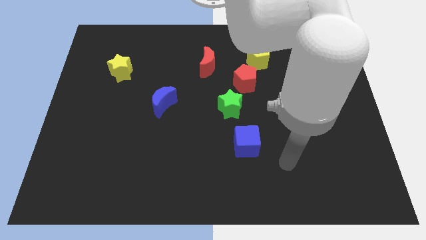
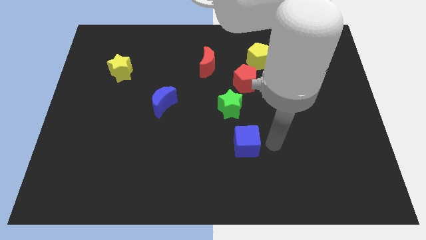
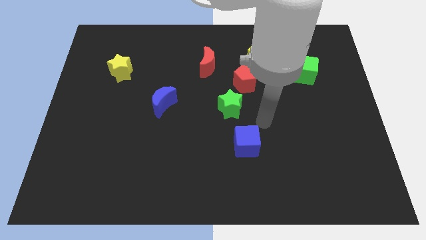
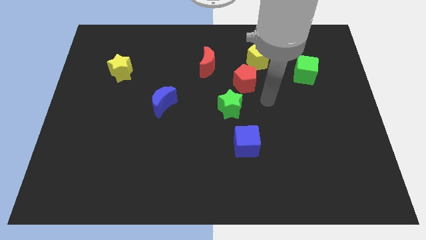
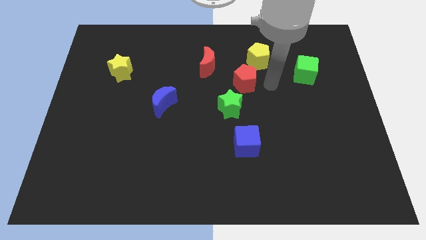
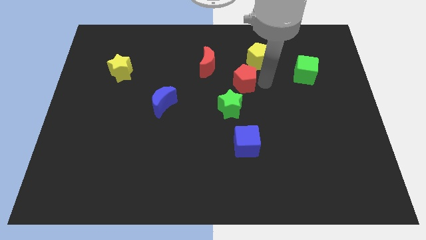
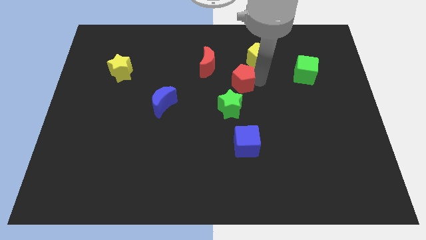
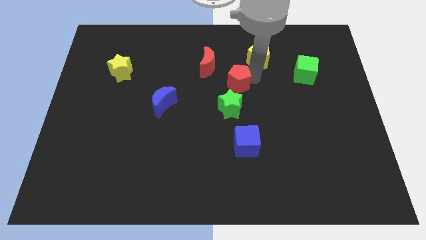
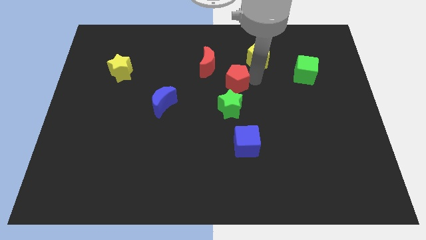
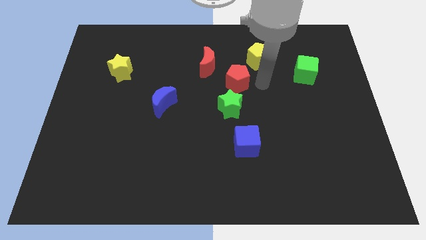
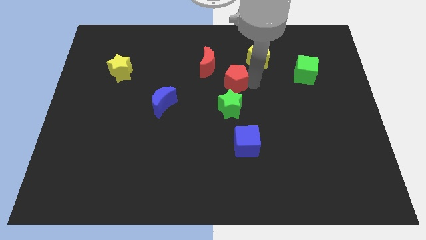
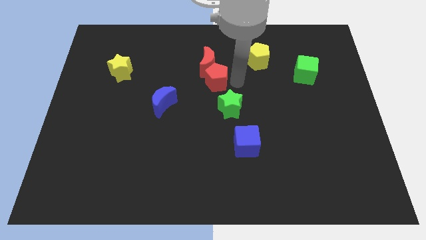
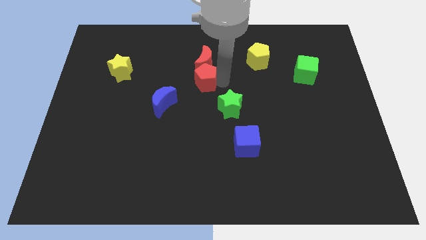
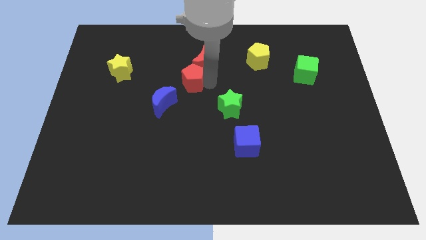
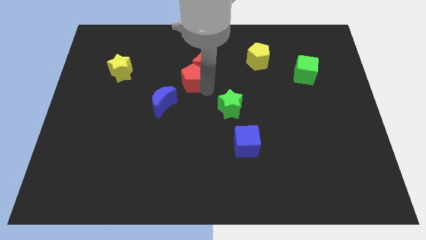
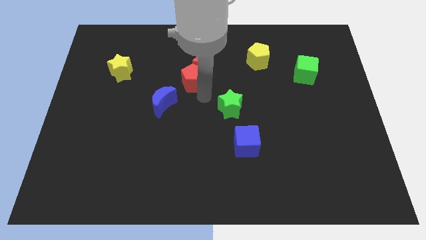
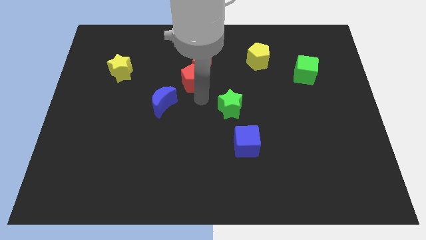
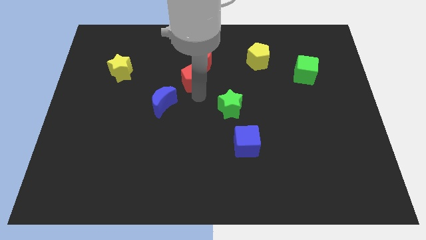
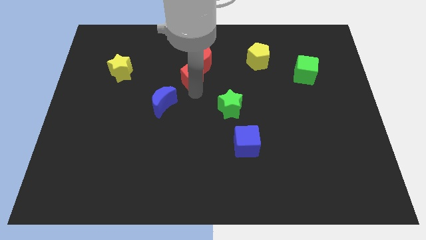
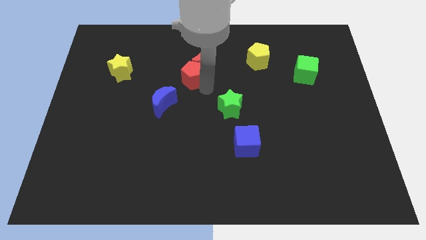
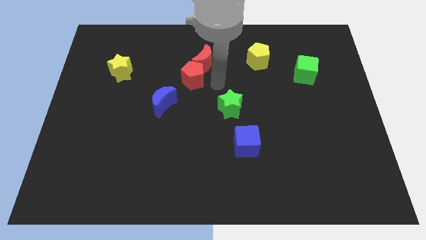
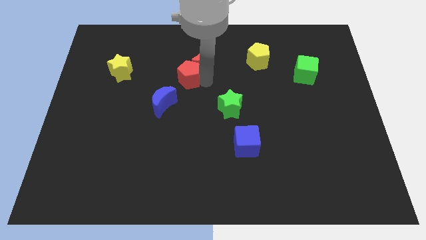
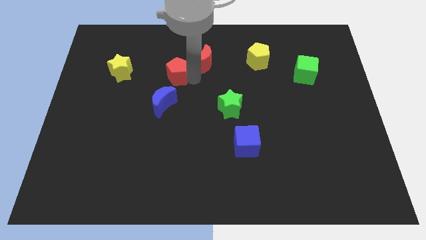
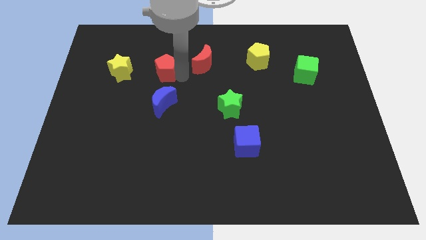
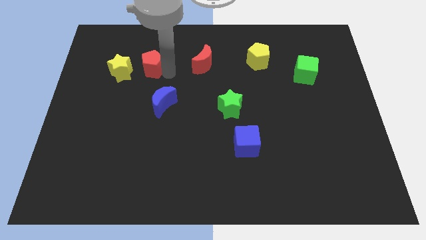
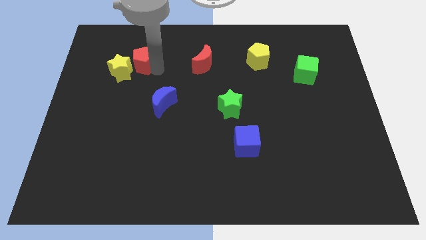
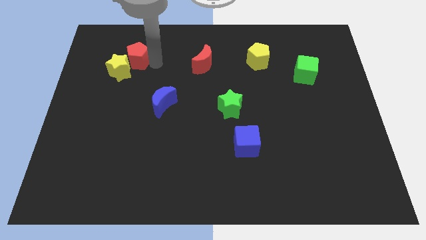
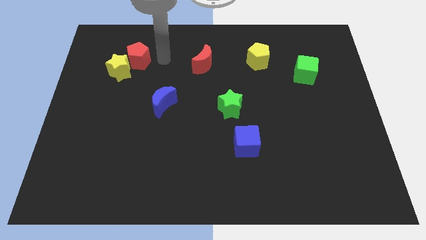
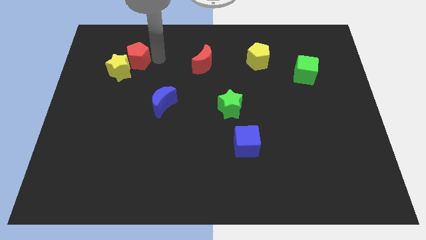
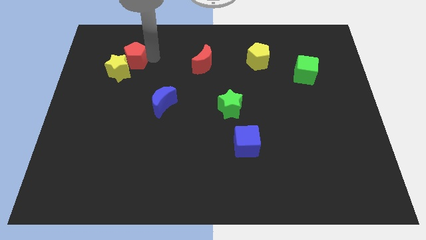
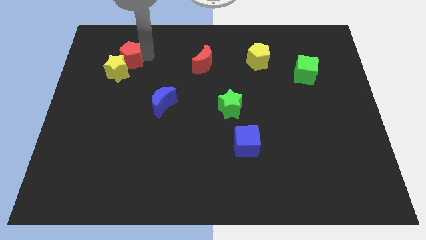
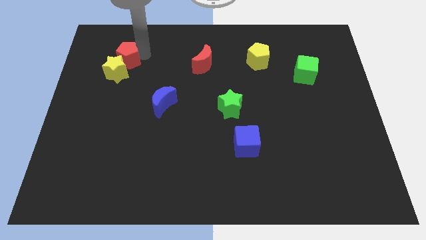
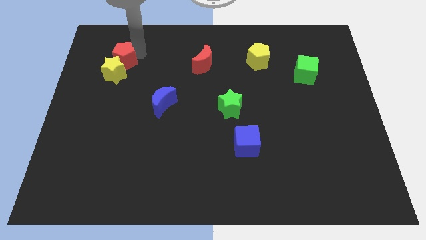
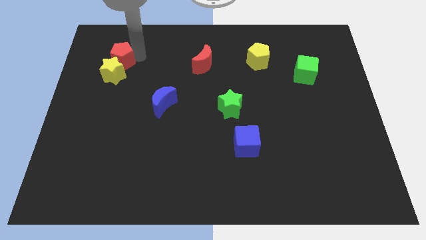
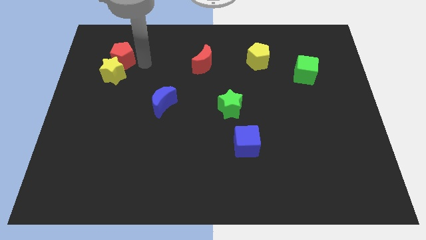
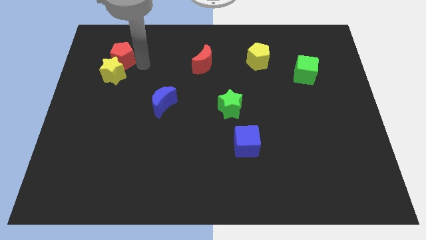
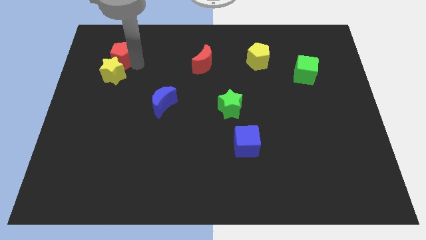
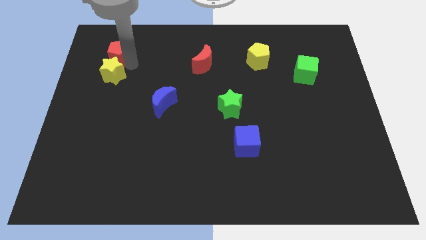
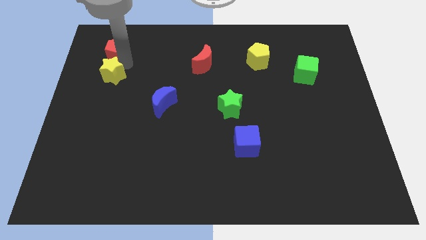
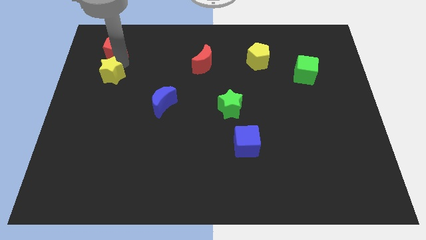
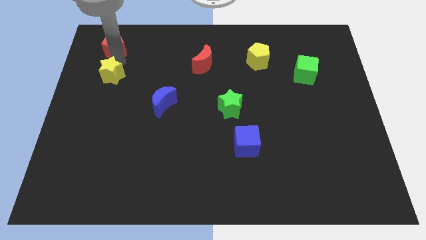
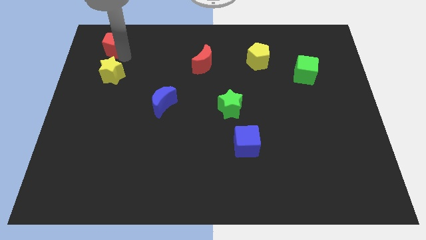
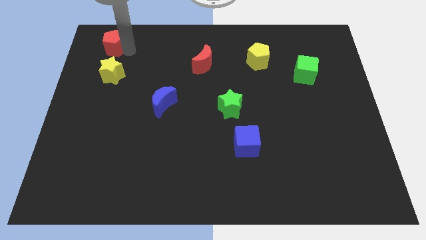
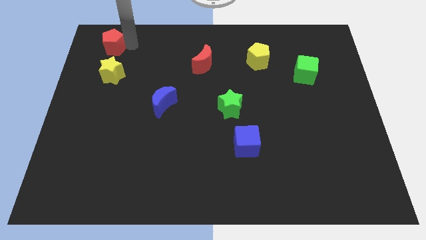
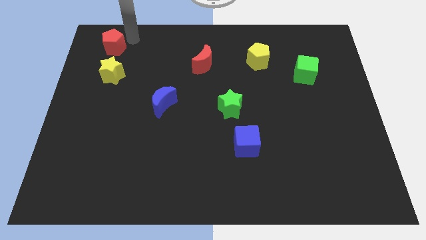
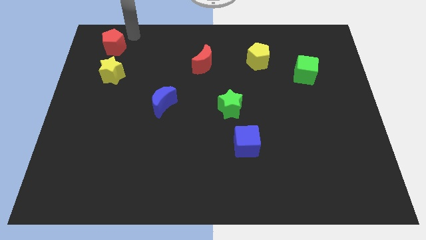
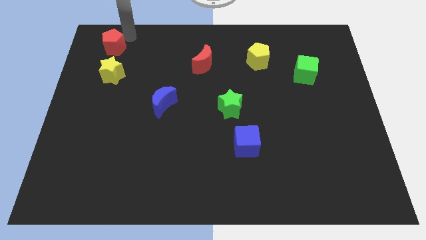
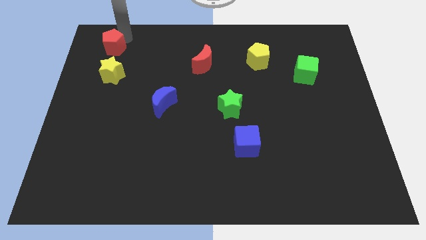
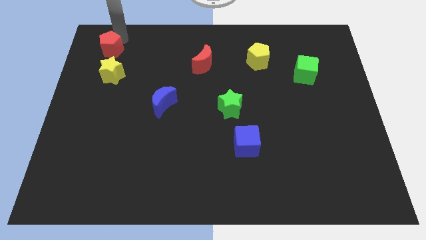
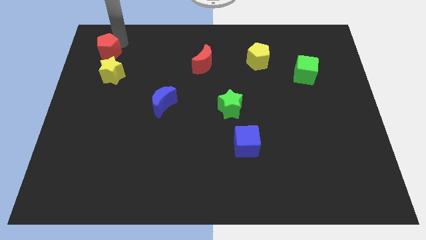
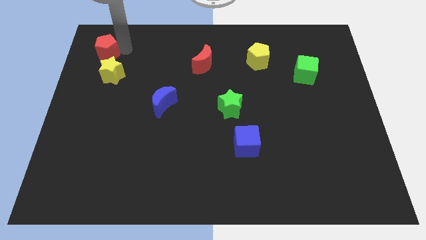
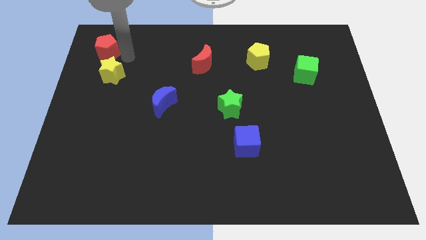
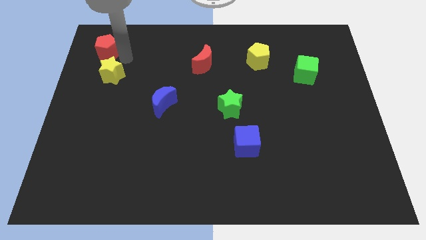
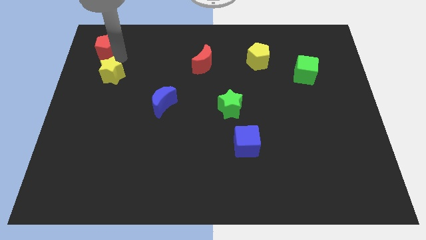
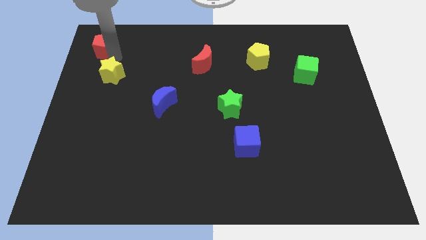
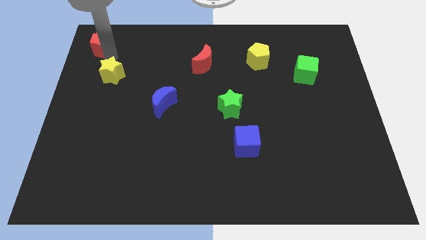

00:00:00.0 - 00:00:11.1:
push the red pentagon to the top left

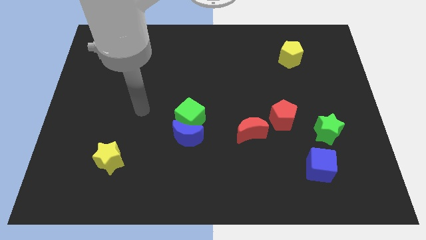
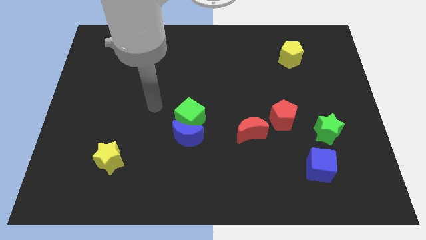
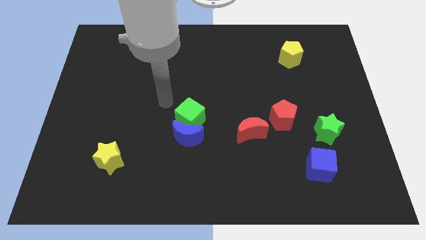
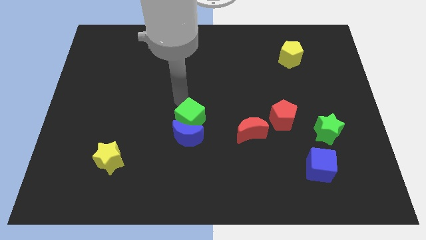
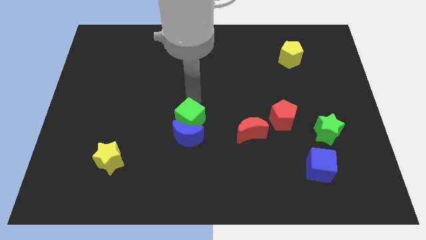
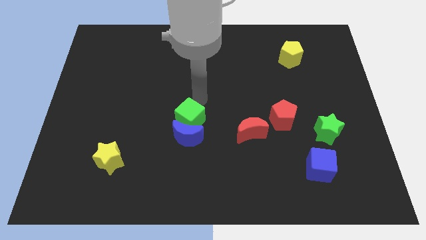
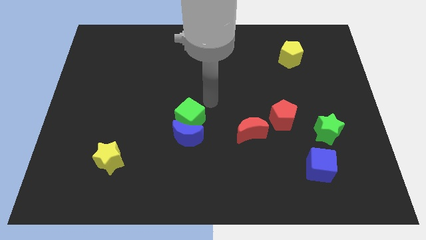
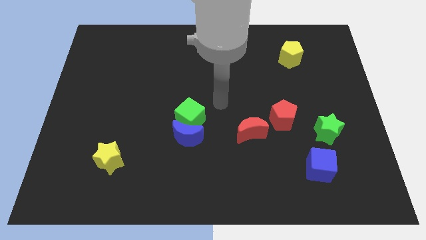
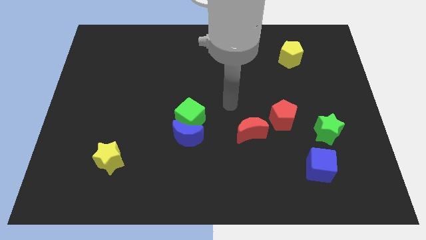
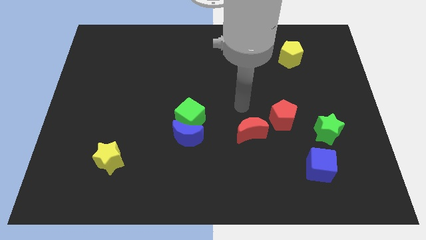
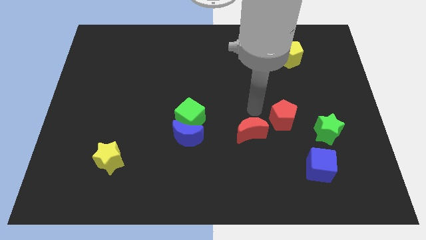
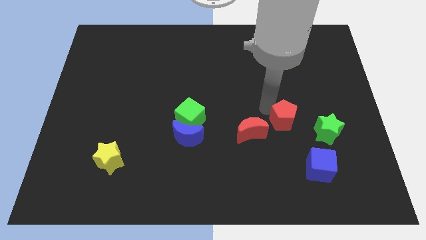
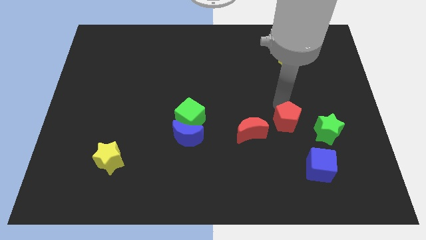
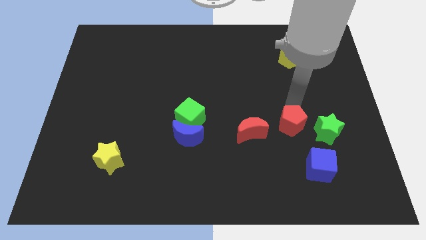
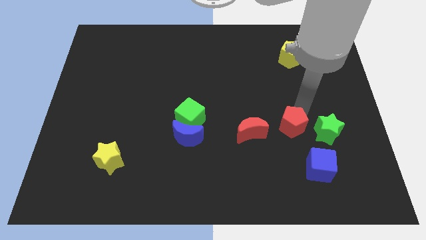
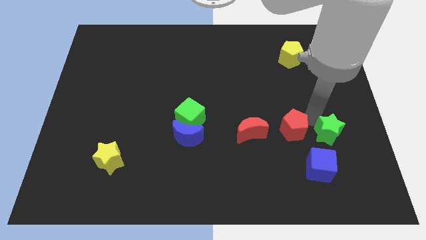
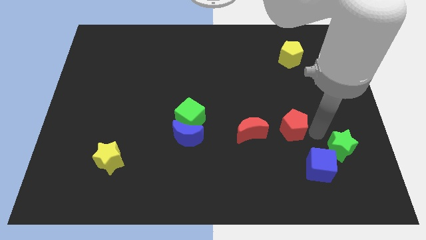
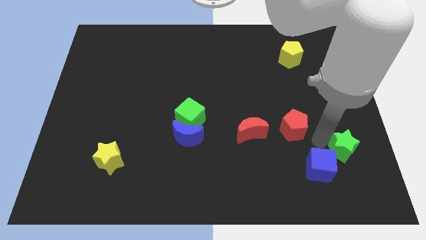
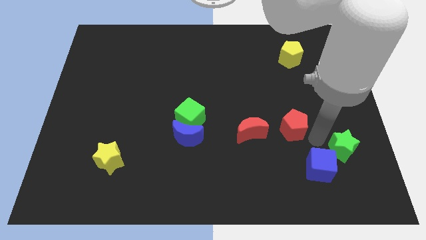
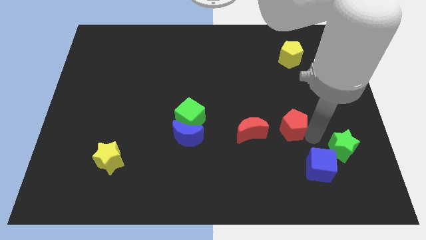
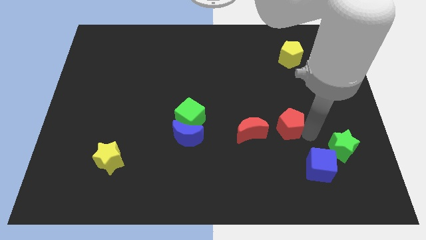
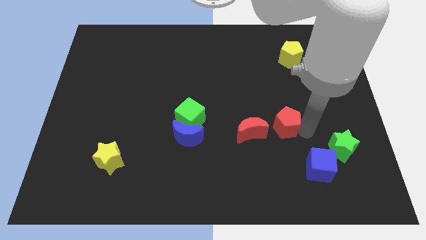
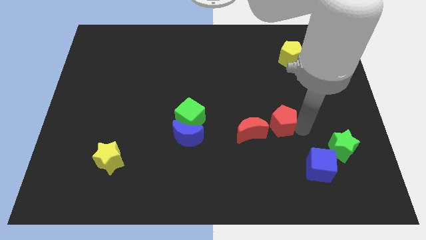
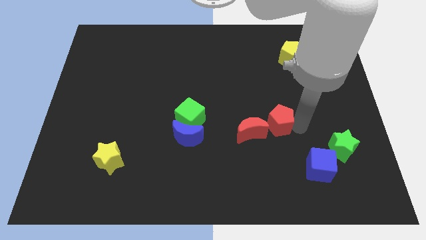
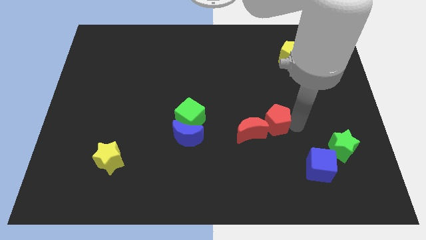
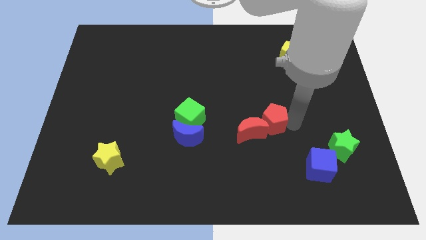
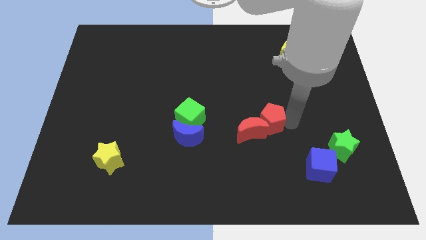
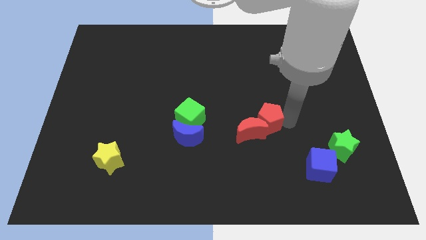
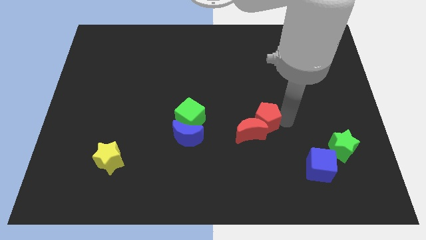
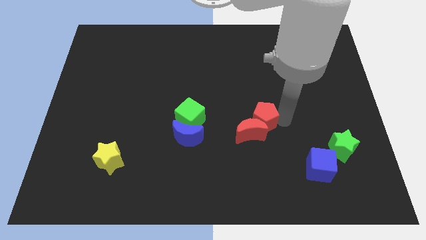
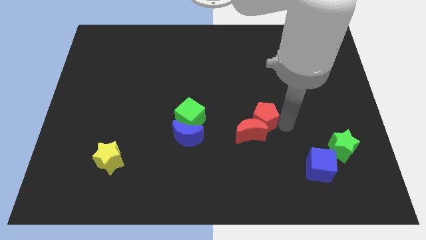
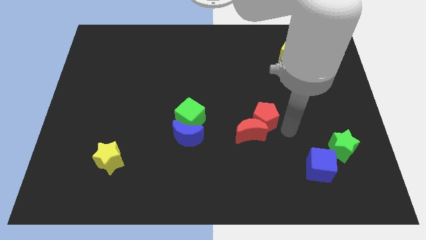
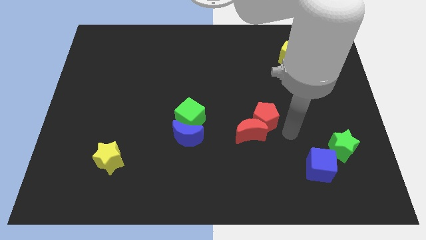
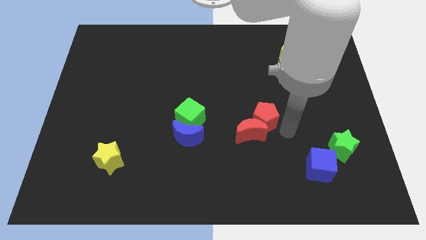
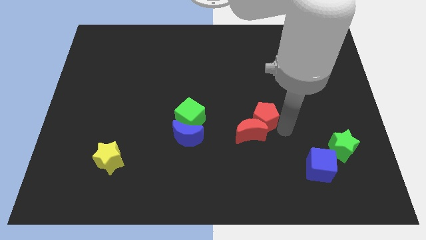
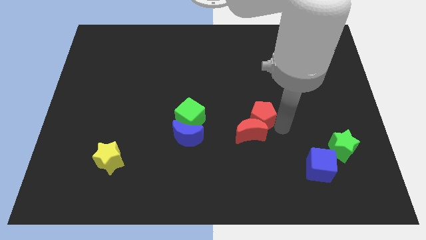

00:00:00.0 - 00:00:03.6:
move the red pentagon to the middle
